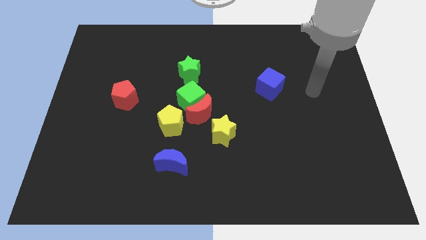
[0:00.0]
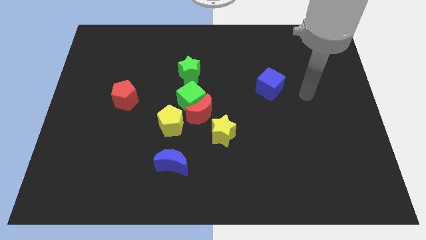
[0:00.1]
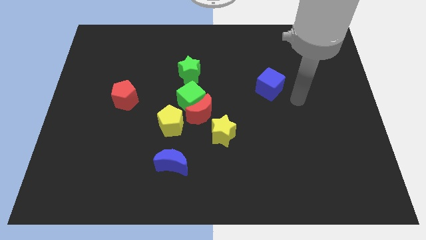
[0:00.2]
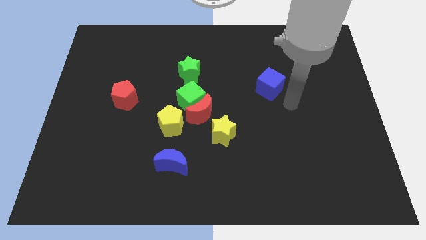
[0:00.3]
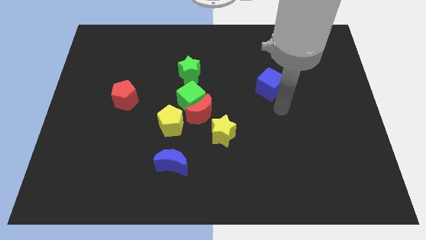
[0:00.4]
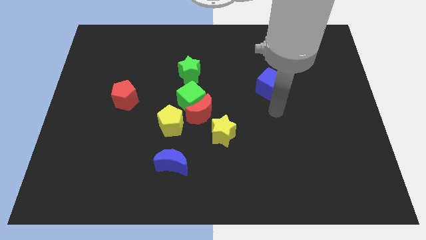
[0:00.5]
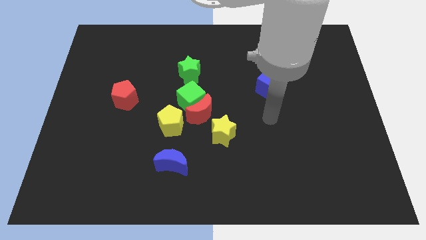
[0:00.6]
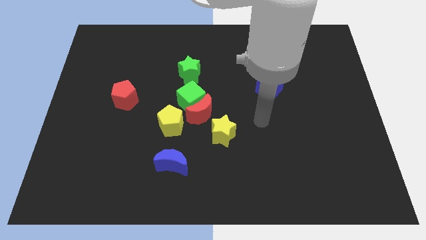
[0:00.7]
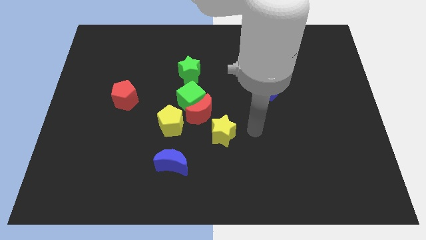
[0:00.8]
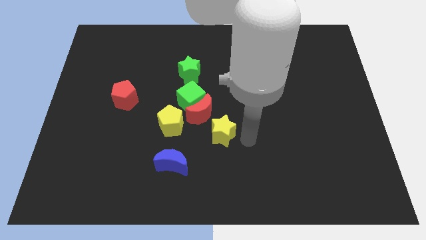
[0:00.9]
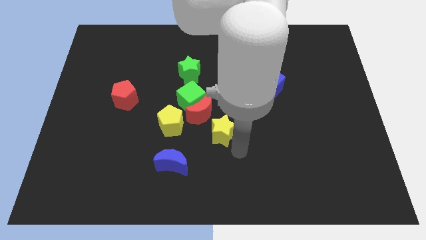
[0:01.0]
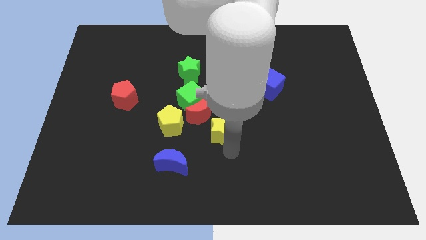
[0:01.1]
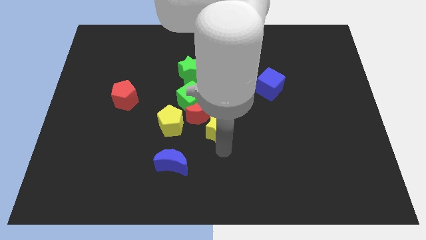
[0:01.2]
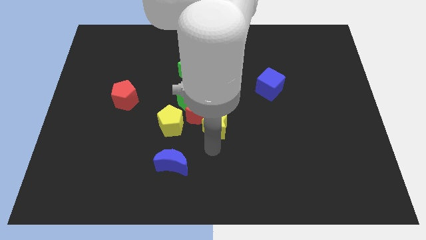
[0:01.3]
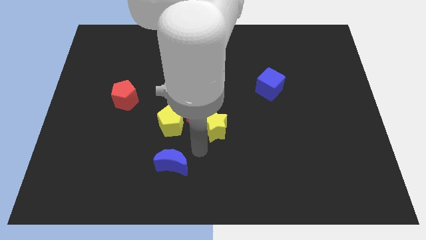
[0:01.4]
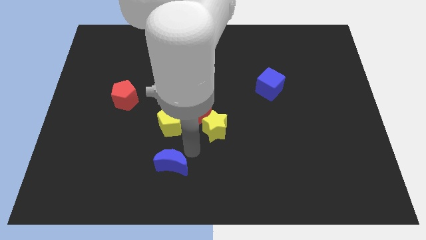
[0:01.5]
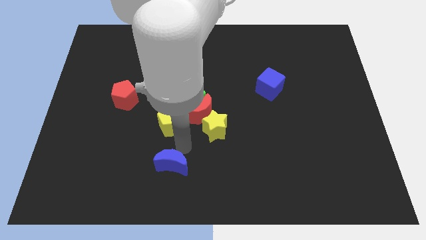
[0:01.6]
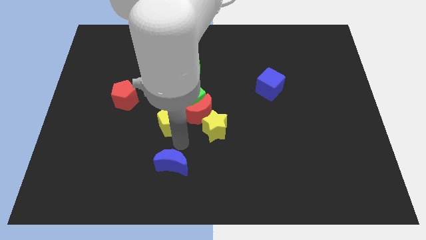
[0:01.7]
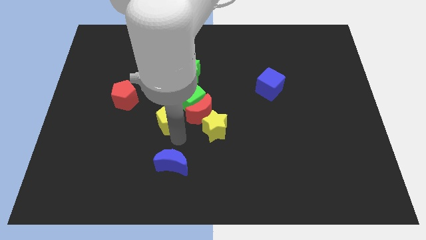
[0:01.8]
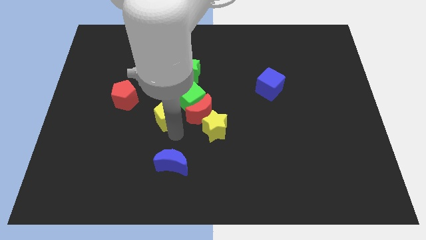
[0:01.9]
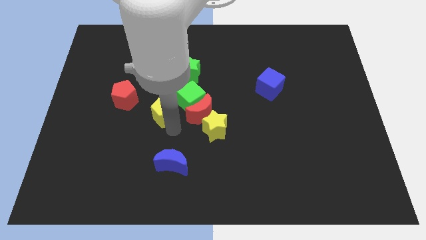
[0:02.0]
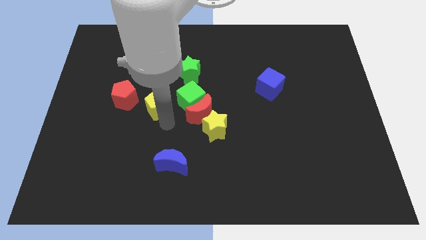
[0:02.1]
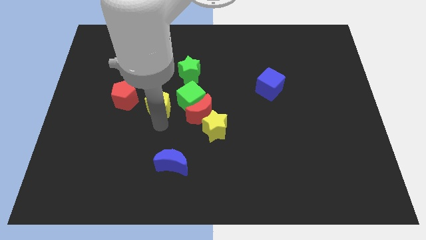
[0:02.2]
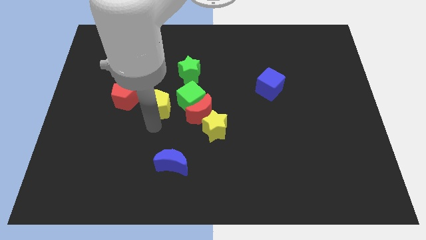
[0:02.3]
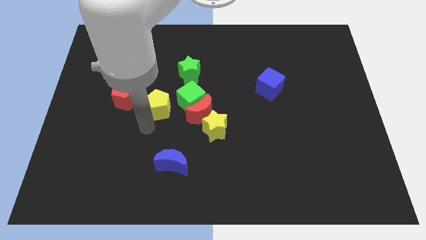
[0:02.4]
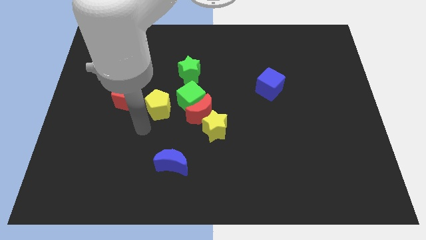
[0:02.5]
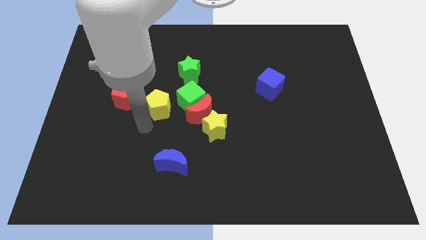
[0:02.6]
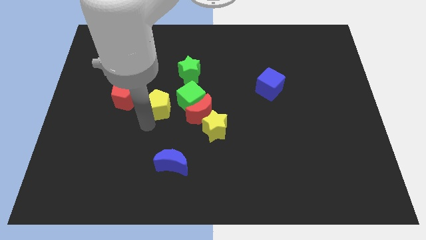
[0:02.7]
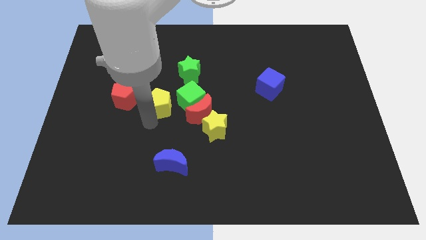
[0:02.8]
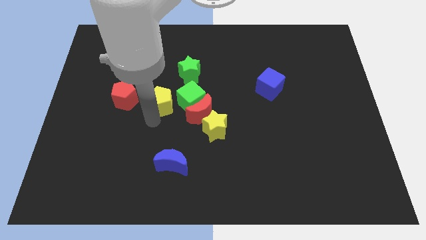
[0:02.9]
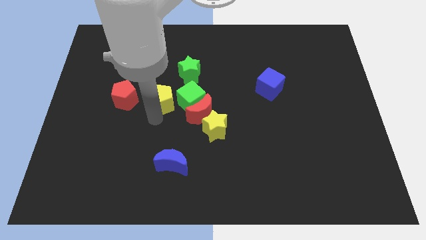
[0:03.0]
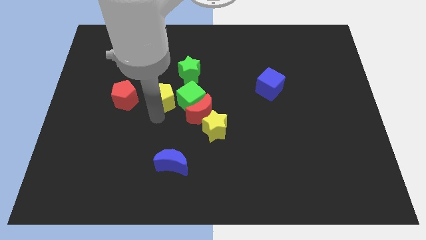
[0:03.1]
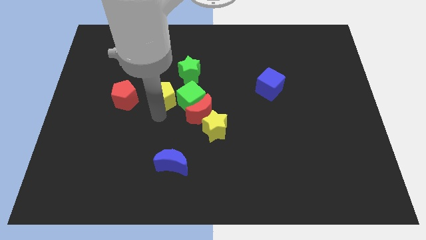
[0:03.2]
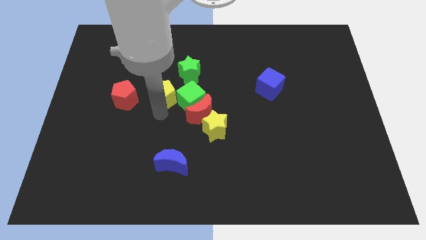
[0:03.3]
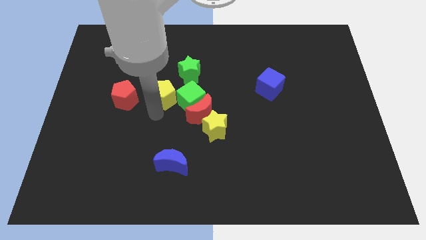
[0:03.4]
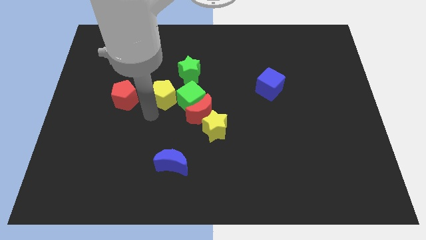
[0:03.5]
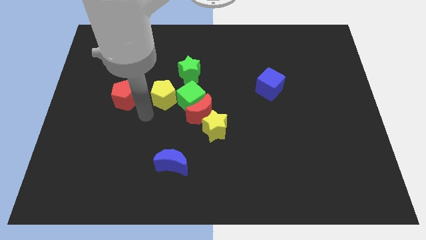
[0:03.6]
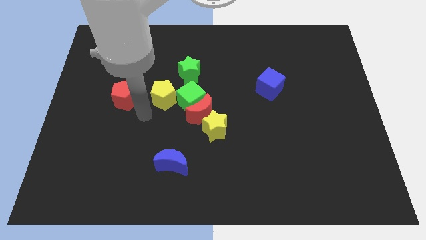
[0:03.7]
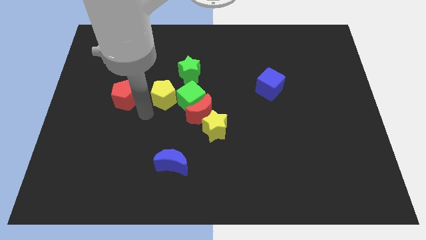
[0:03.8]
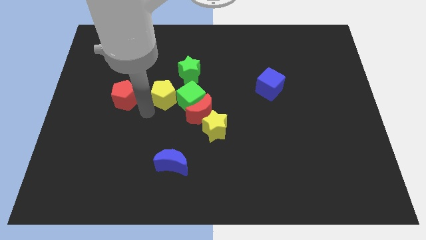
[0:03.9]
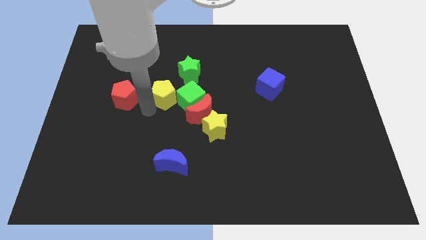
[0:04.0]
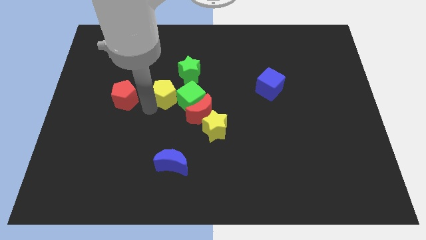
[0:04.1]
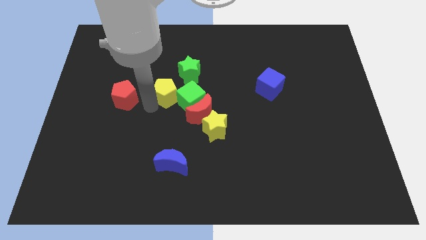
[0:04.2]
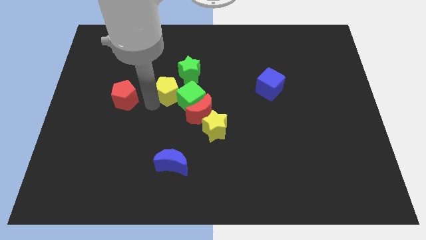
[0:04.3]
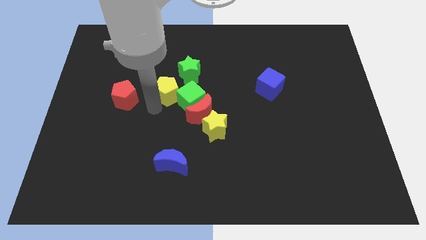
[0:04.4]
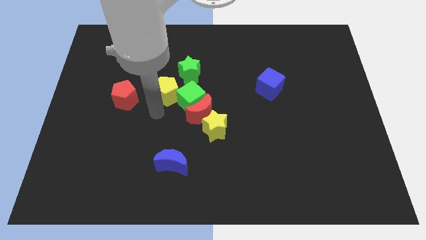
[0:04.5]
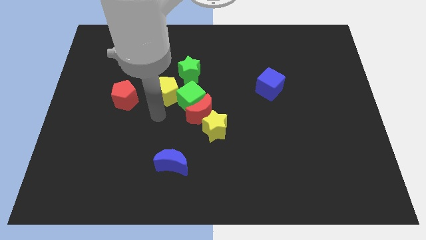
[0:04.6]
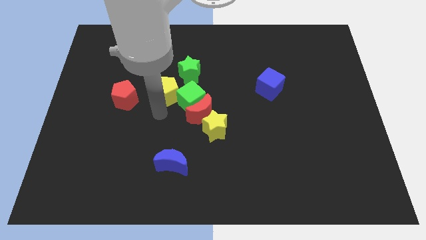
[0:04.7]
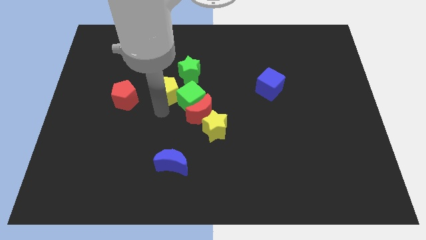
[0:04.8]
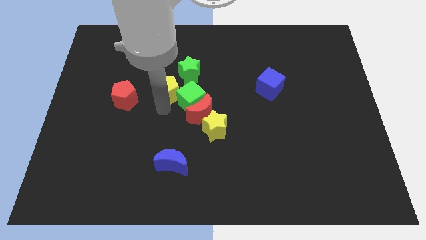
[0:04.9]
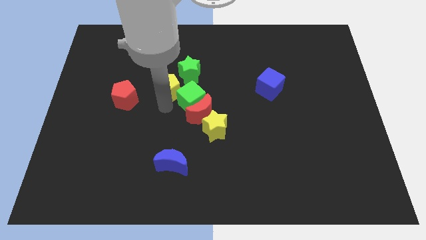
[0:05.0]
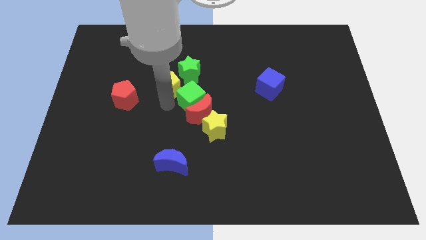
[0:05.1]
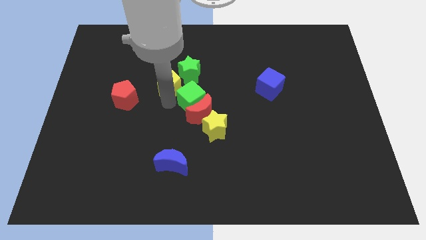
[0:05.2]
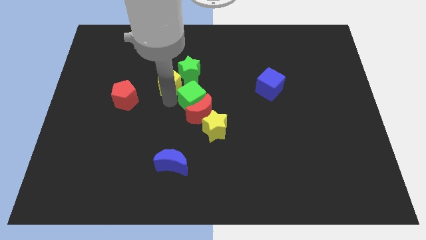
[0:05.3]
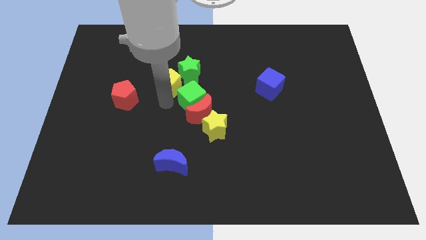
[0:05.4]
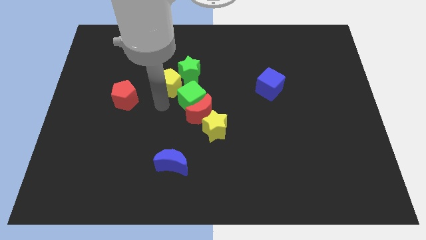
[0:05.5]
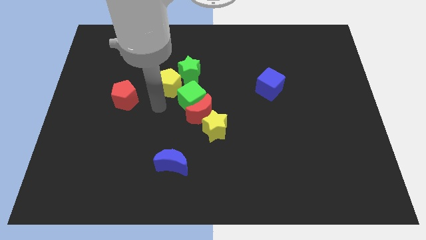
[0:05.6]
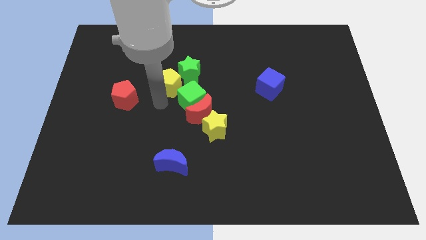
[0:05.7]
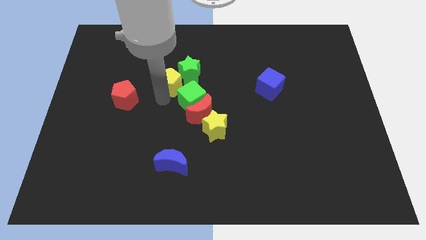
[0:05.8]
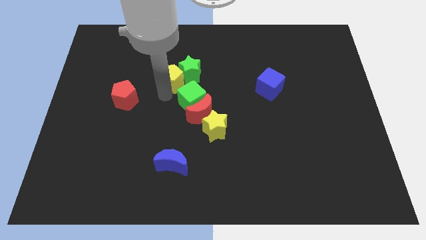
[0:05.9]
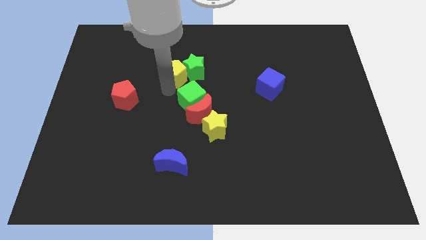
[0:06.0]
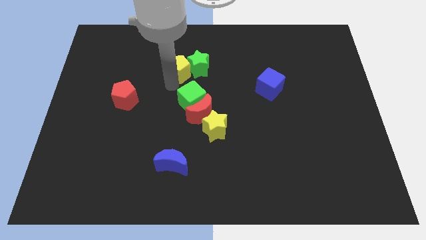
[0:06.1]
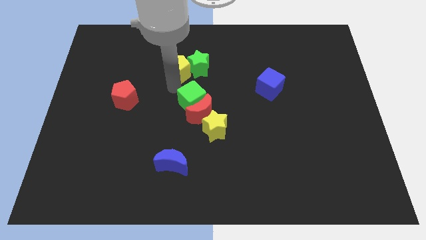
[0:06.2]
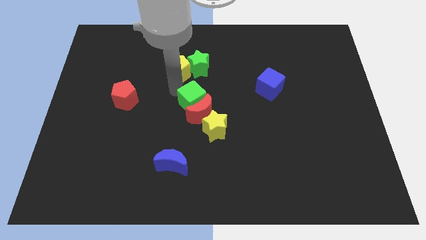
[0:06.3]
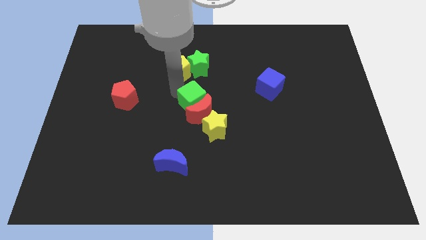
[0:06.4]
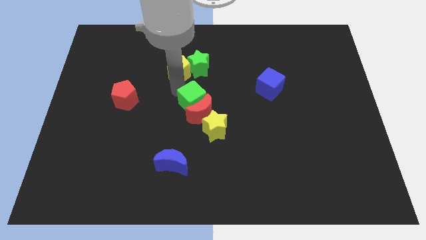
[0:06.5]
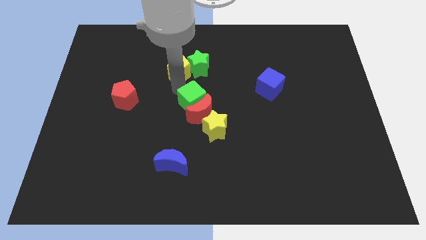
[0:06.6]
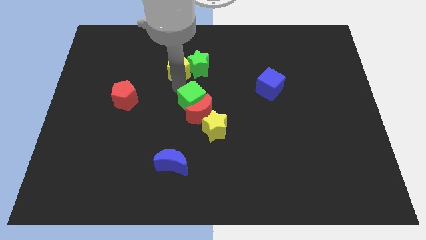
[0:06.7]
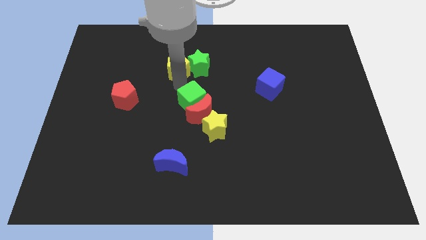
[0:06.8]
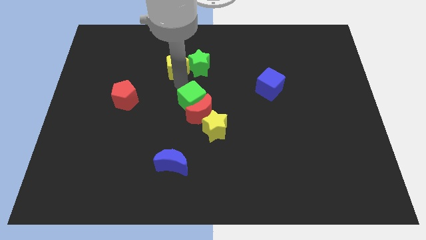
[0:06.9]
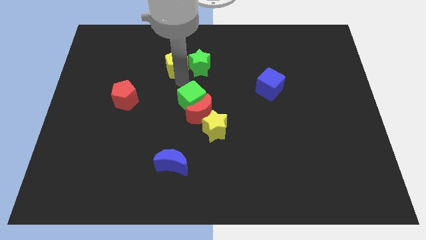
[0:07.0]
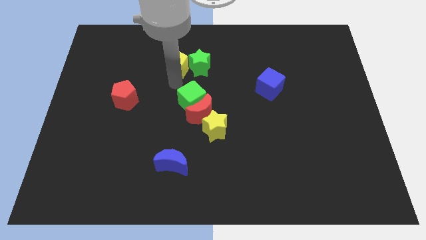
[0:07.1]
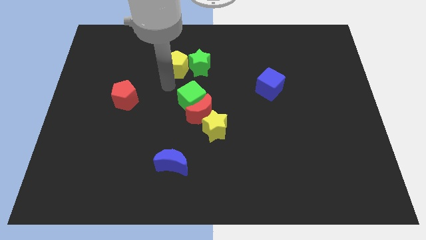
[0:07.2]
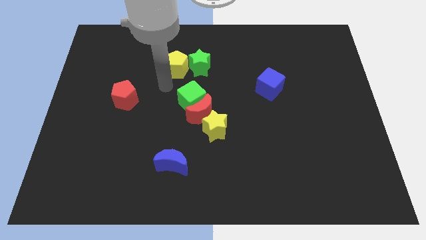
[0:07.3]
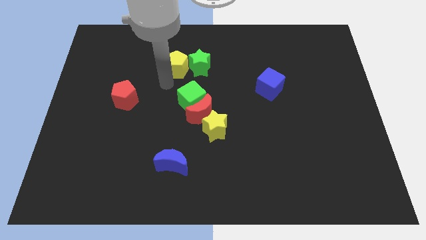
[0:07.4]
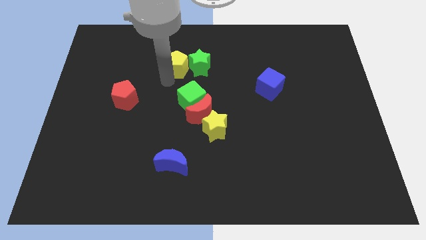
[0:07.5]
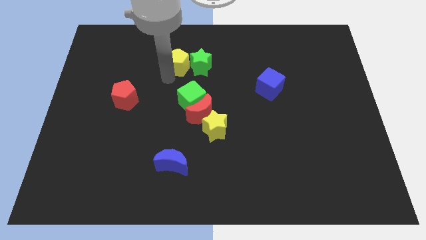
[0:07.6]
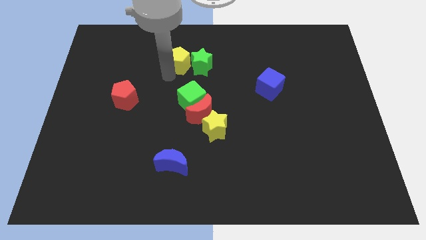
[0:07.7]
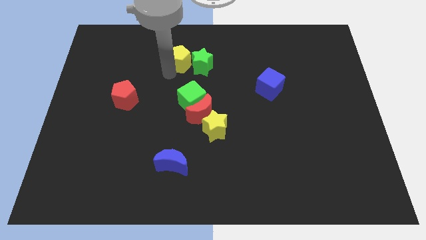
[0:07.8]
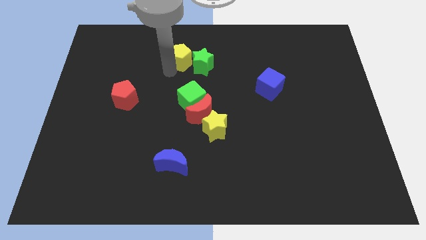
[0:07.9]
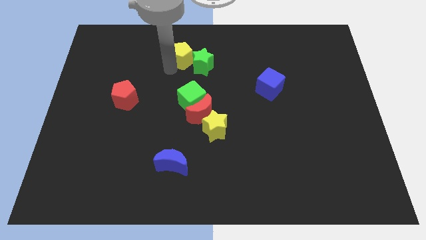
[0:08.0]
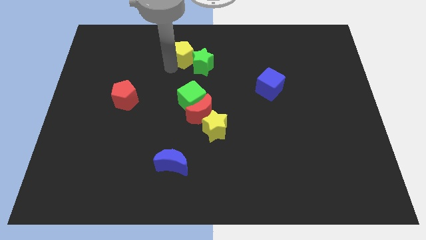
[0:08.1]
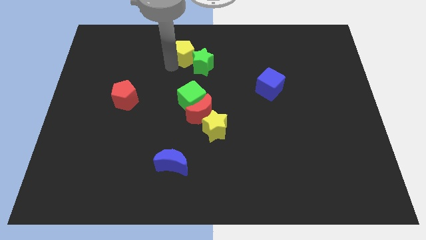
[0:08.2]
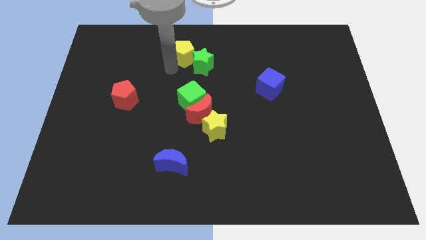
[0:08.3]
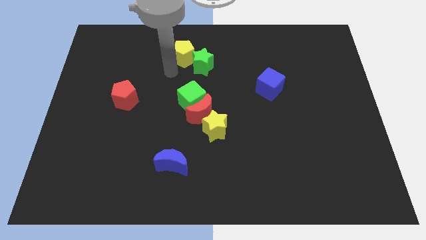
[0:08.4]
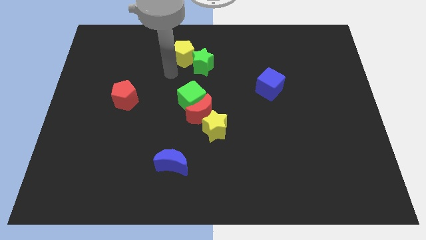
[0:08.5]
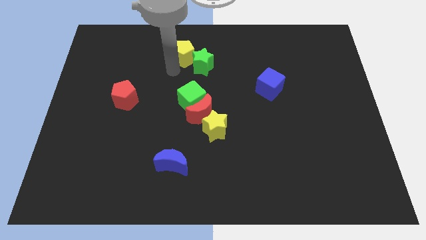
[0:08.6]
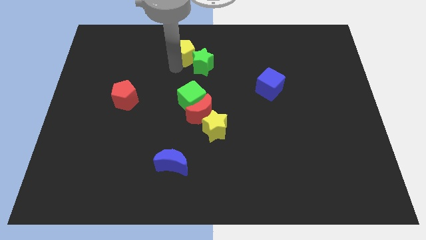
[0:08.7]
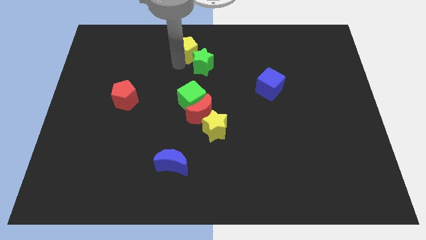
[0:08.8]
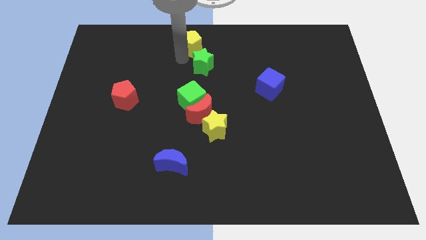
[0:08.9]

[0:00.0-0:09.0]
push the yellow pentagon to the top side
